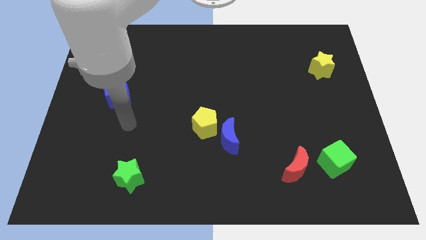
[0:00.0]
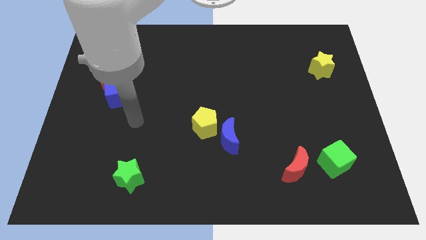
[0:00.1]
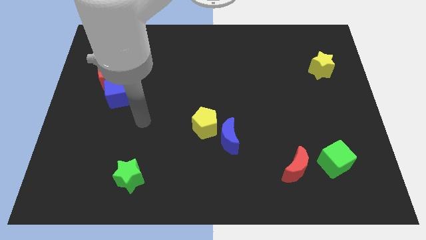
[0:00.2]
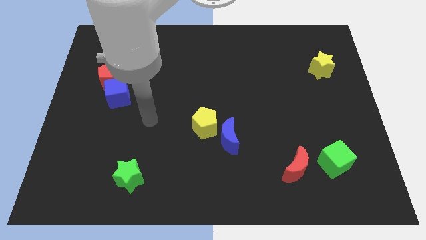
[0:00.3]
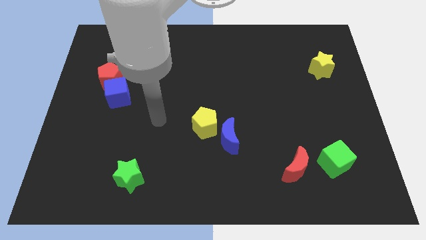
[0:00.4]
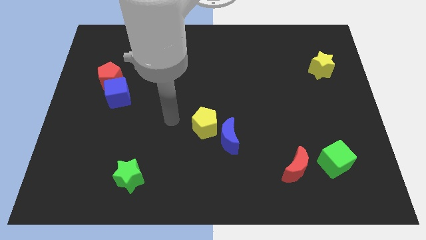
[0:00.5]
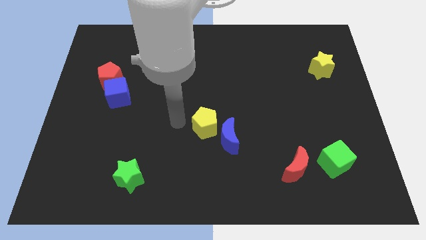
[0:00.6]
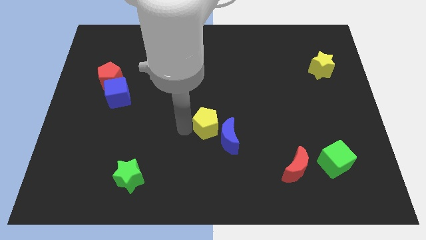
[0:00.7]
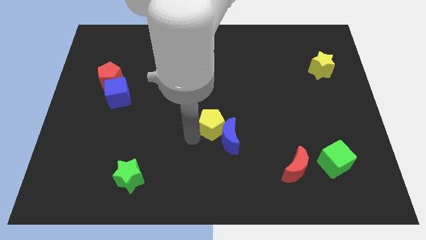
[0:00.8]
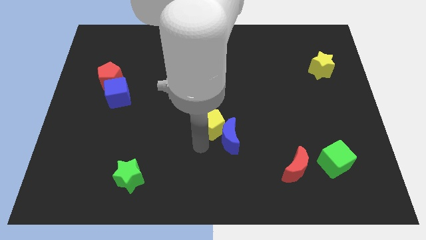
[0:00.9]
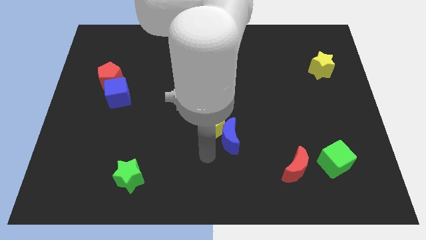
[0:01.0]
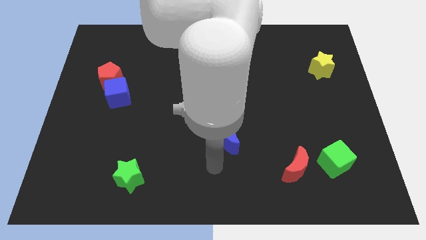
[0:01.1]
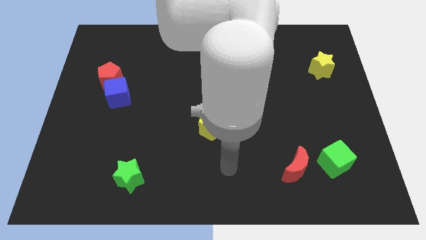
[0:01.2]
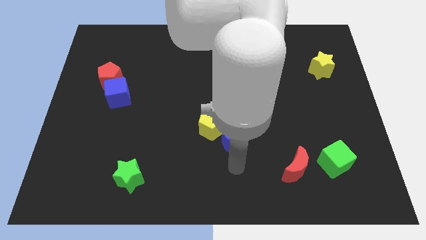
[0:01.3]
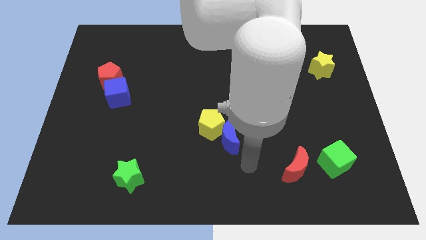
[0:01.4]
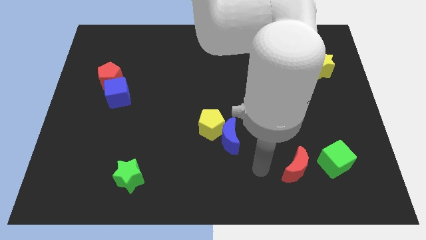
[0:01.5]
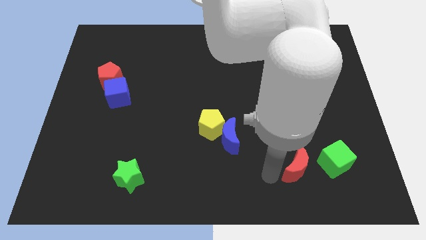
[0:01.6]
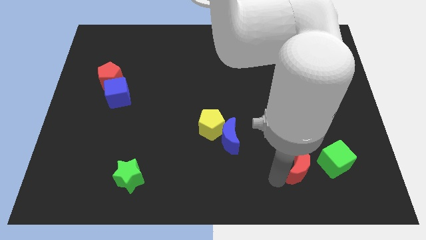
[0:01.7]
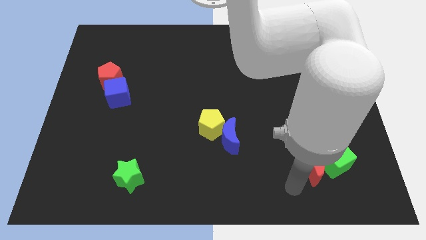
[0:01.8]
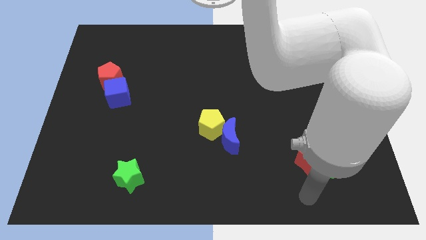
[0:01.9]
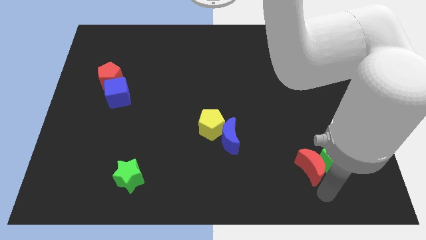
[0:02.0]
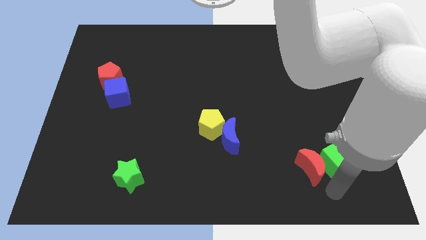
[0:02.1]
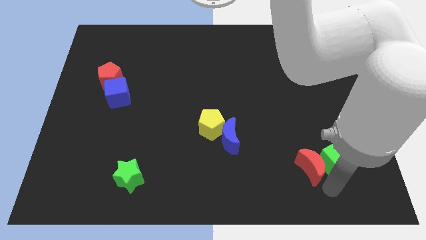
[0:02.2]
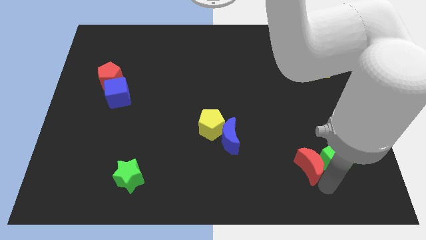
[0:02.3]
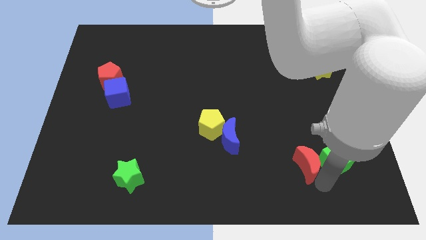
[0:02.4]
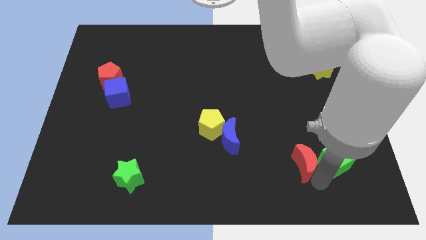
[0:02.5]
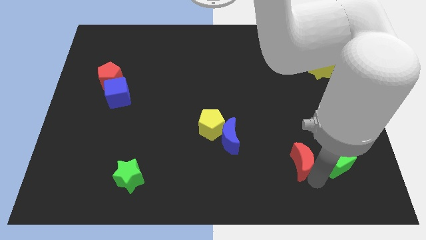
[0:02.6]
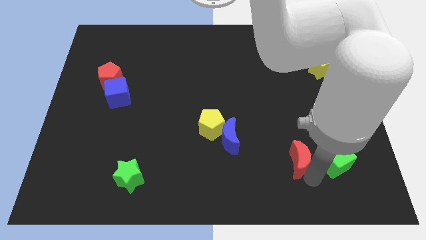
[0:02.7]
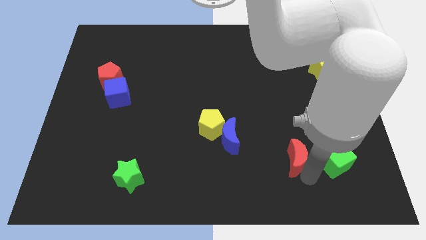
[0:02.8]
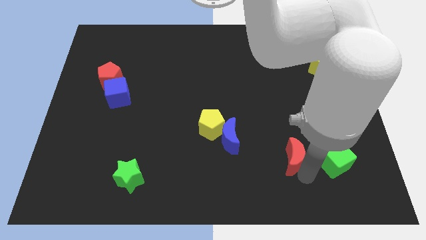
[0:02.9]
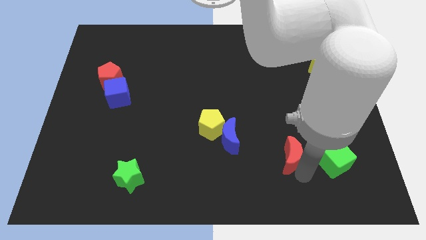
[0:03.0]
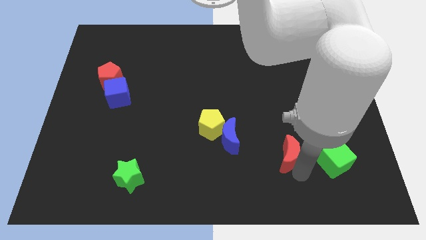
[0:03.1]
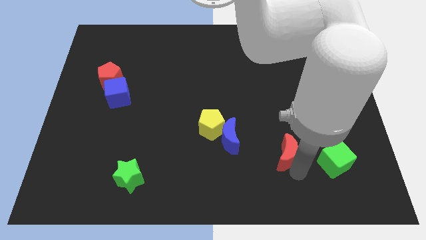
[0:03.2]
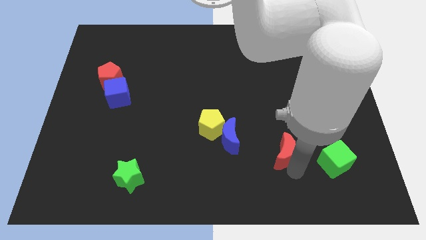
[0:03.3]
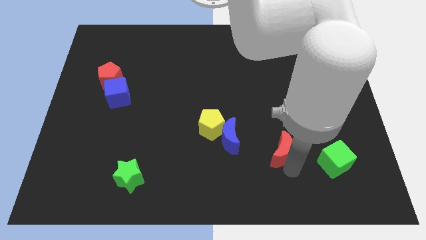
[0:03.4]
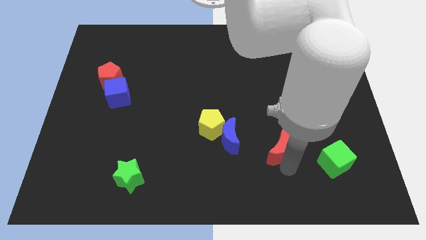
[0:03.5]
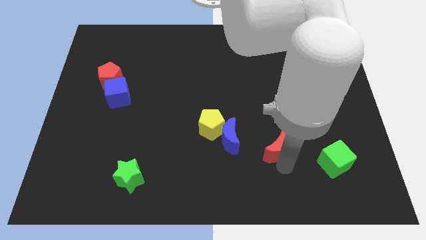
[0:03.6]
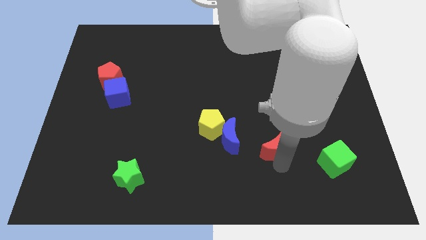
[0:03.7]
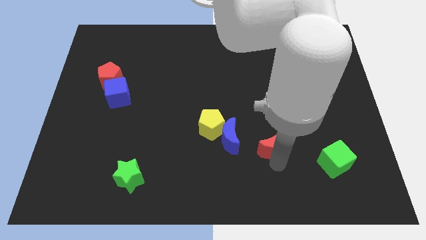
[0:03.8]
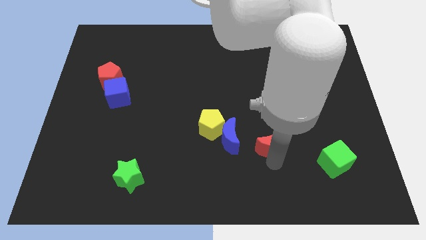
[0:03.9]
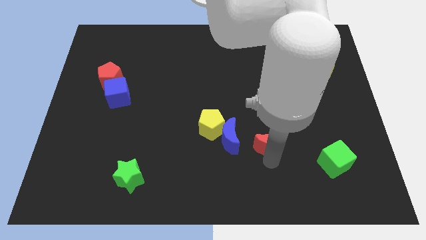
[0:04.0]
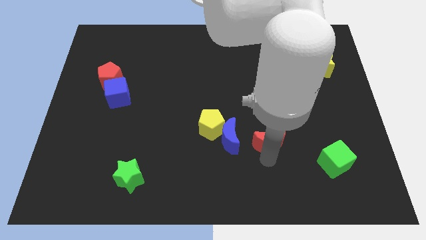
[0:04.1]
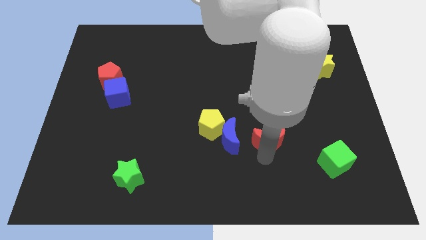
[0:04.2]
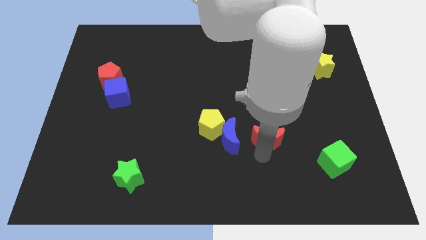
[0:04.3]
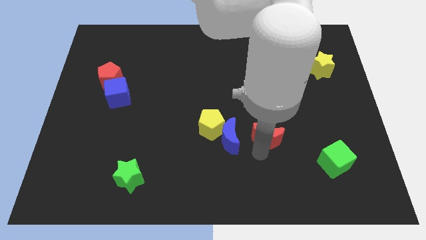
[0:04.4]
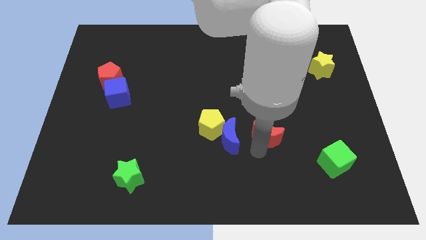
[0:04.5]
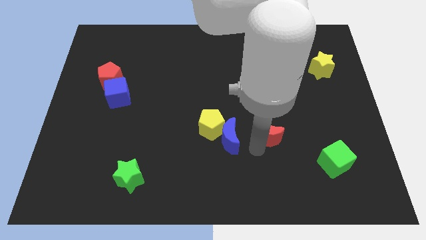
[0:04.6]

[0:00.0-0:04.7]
push the red moon upwards a little

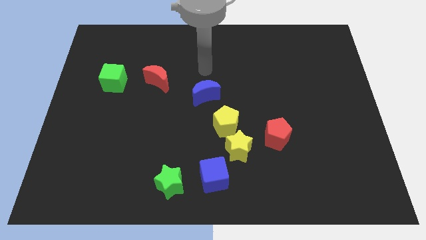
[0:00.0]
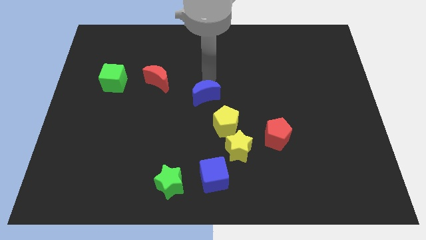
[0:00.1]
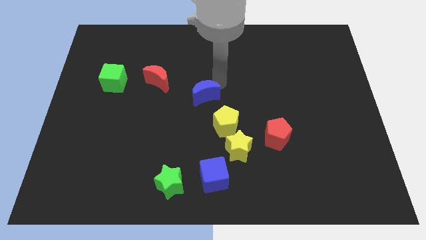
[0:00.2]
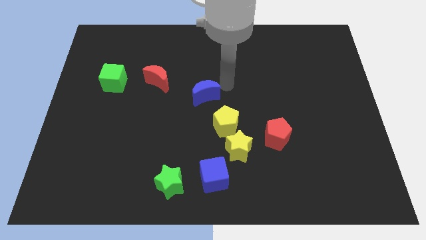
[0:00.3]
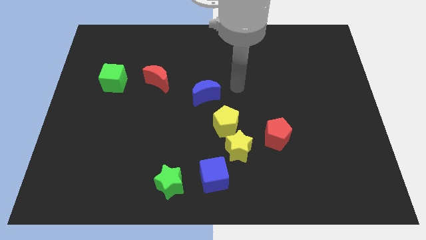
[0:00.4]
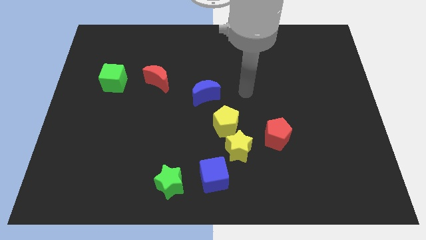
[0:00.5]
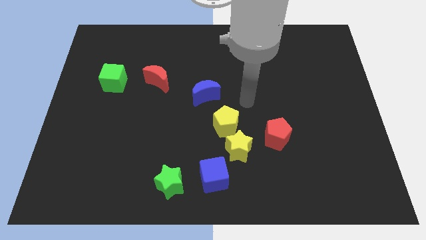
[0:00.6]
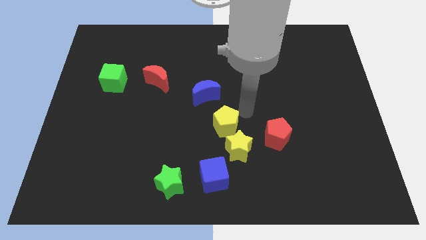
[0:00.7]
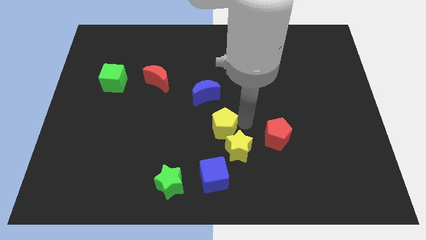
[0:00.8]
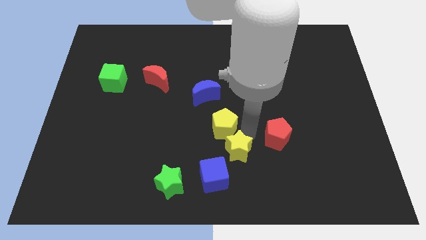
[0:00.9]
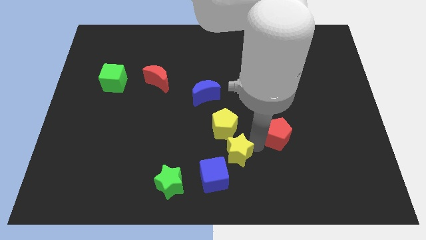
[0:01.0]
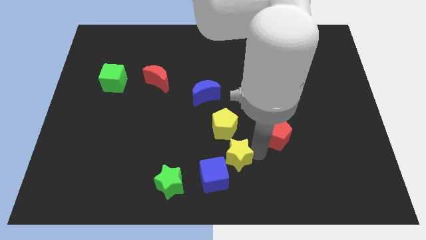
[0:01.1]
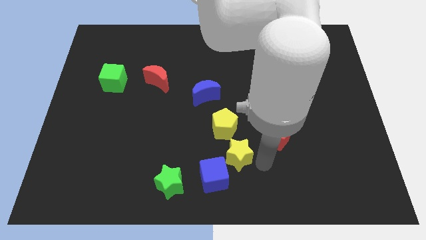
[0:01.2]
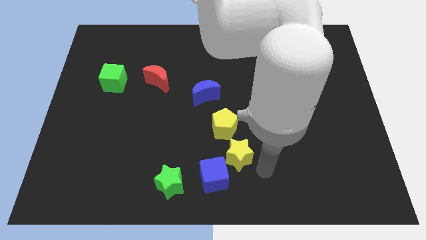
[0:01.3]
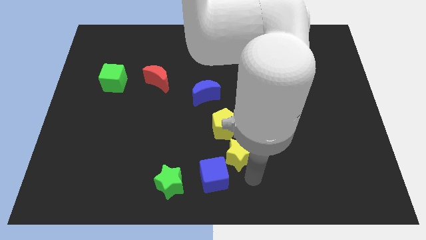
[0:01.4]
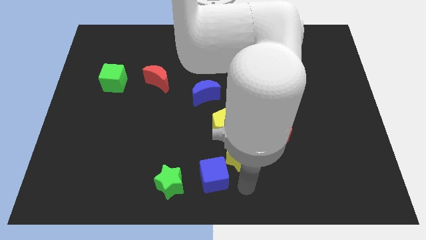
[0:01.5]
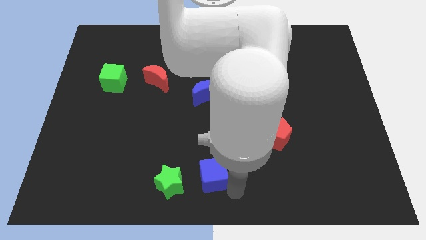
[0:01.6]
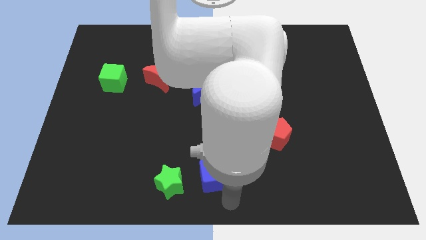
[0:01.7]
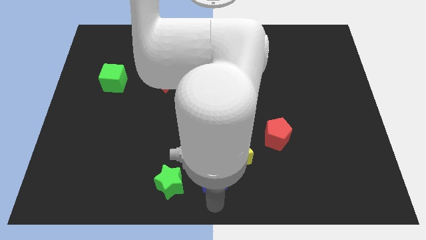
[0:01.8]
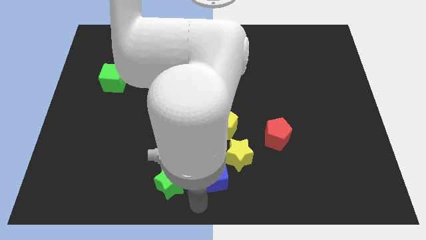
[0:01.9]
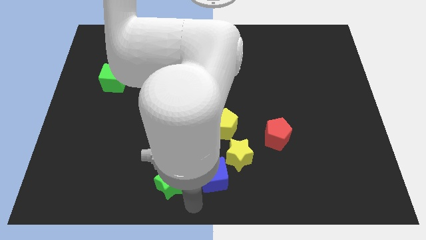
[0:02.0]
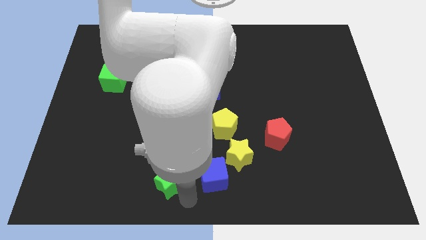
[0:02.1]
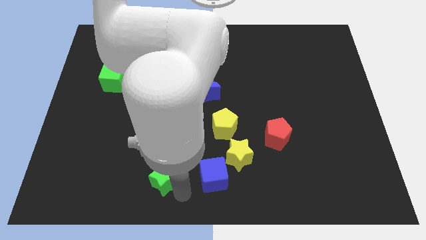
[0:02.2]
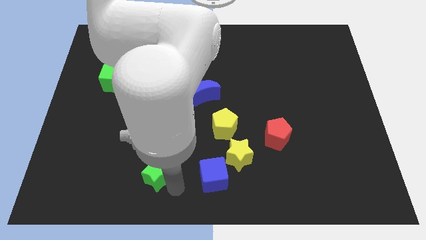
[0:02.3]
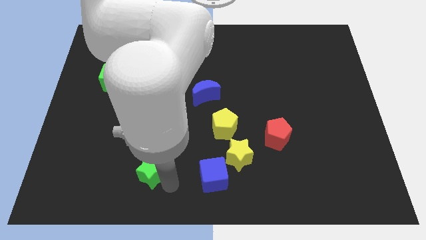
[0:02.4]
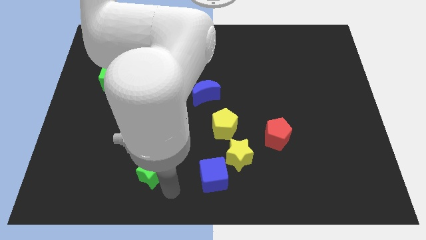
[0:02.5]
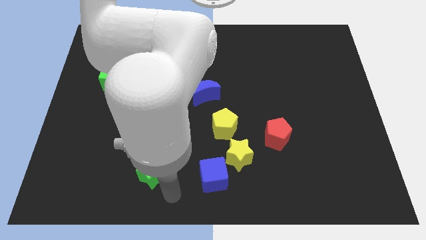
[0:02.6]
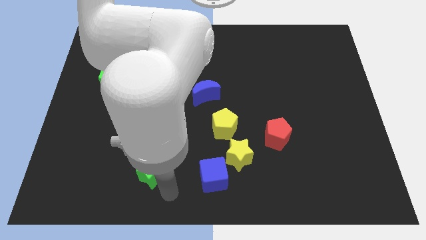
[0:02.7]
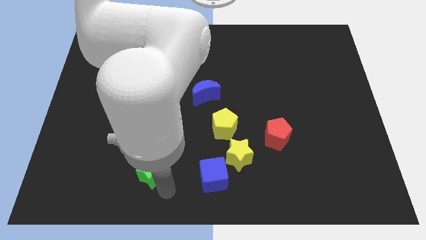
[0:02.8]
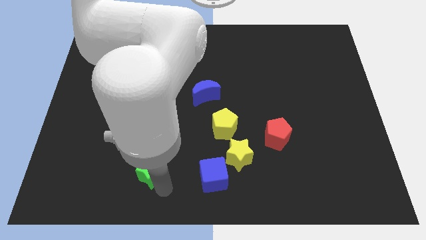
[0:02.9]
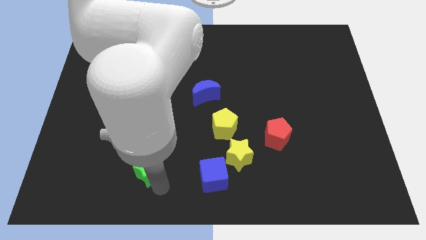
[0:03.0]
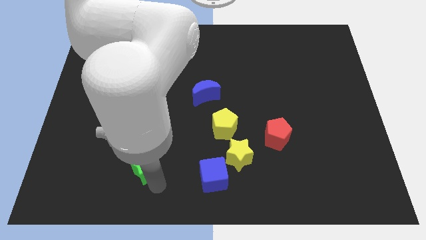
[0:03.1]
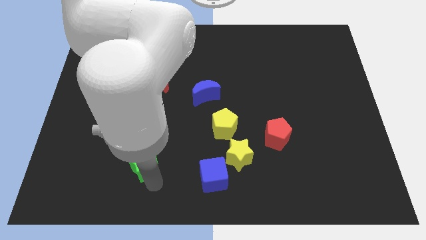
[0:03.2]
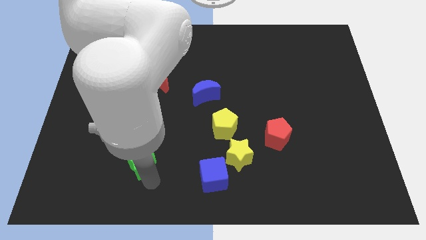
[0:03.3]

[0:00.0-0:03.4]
slightly slide the green star upwards and then to the left
